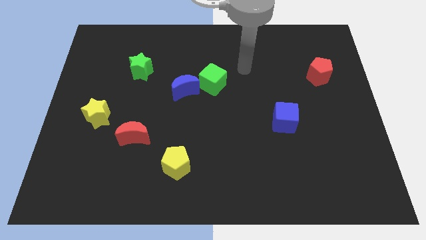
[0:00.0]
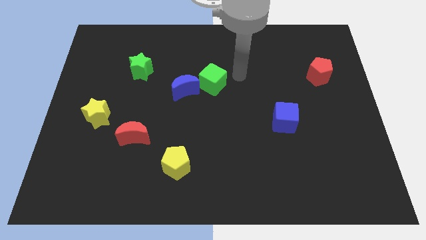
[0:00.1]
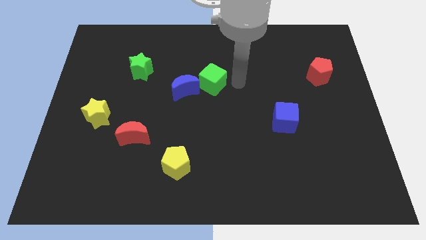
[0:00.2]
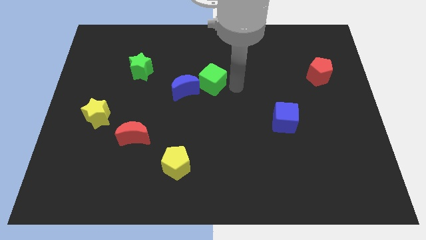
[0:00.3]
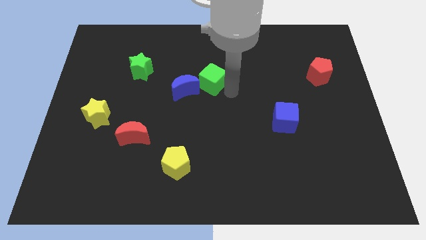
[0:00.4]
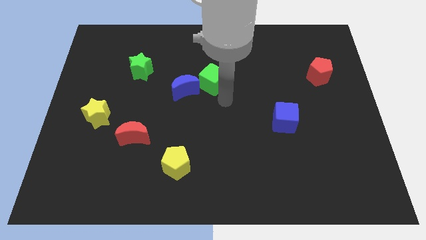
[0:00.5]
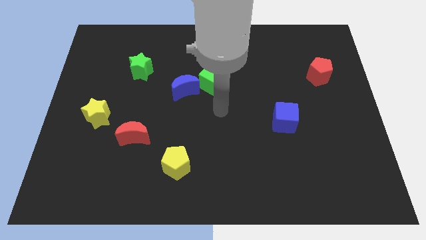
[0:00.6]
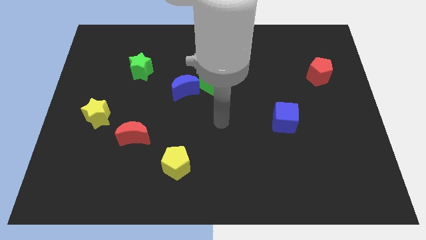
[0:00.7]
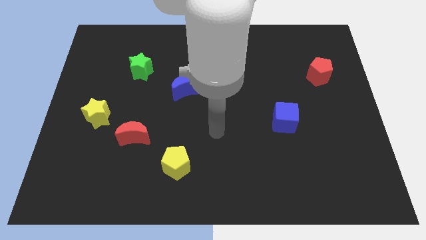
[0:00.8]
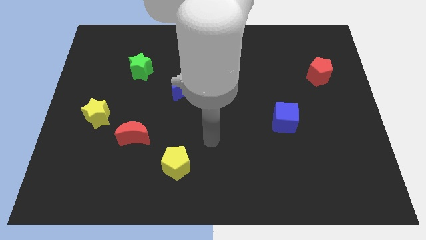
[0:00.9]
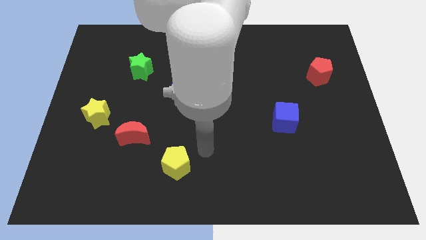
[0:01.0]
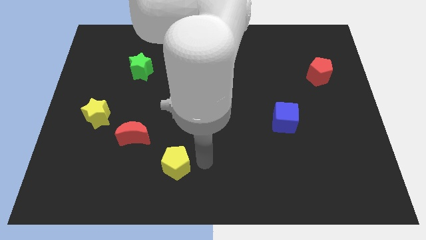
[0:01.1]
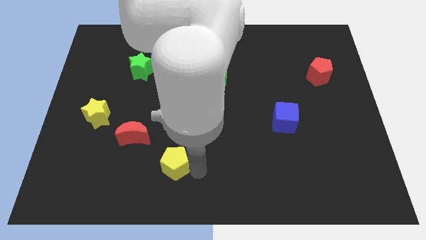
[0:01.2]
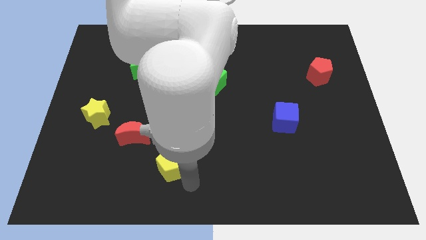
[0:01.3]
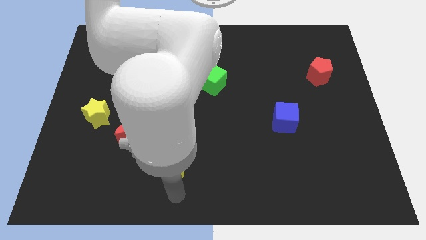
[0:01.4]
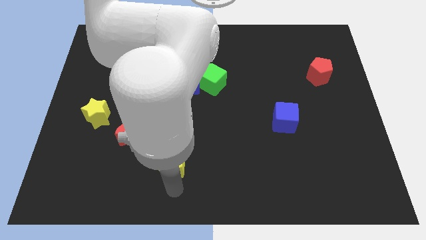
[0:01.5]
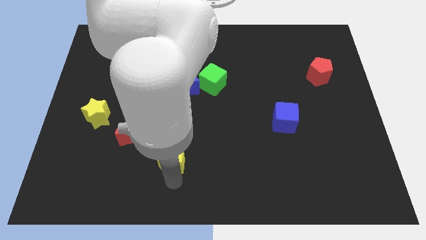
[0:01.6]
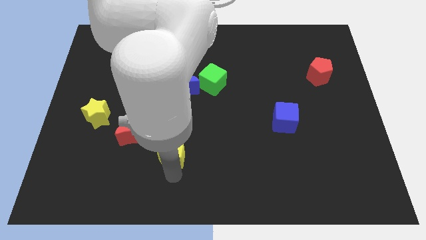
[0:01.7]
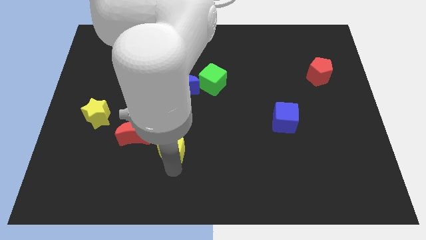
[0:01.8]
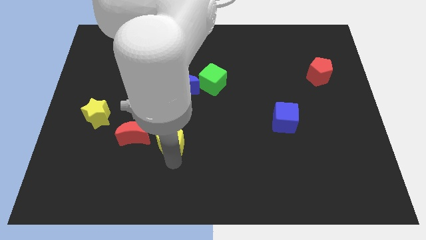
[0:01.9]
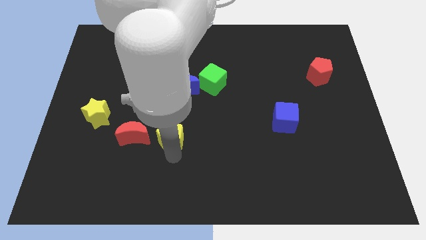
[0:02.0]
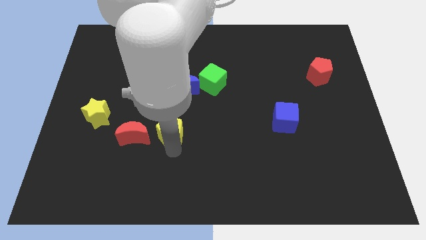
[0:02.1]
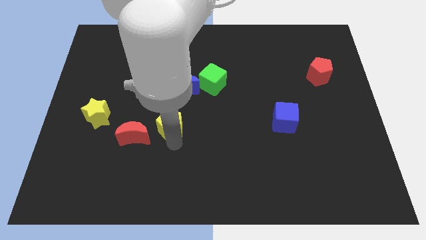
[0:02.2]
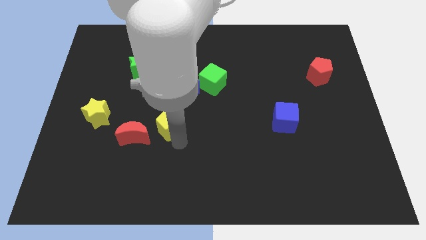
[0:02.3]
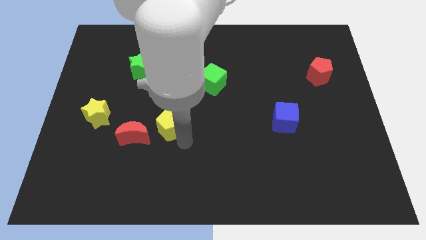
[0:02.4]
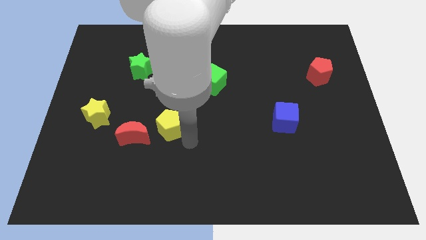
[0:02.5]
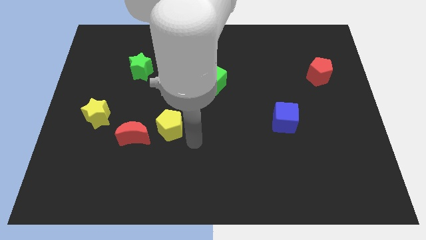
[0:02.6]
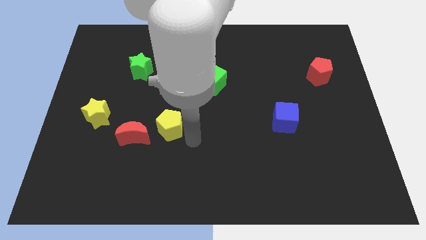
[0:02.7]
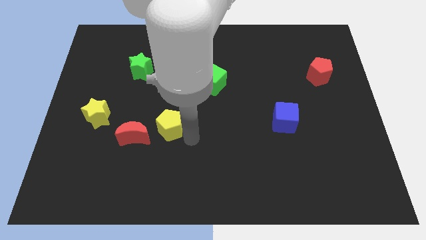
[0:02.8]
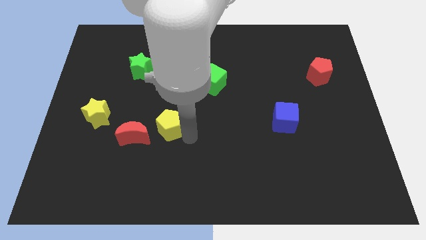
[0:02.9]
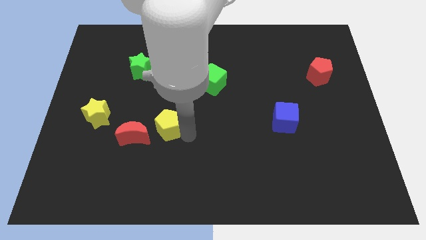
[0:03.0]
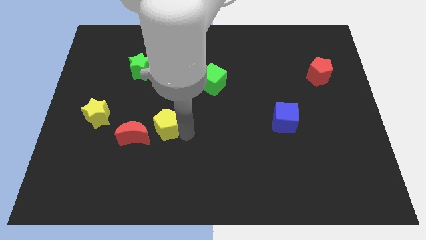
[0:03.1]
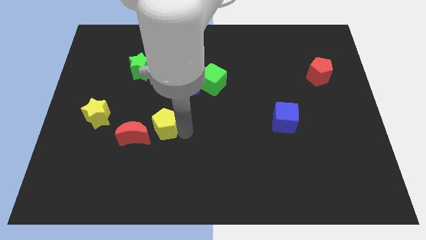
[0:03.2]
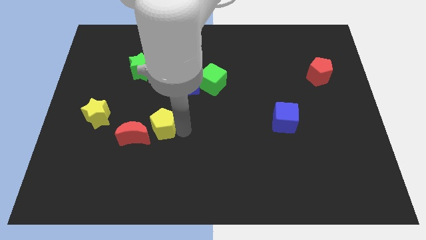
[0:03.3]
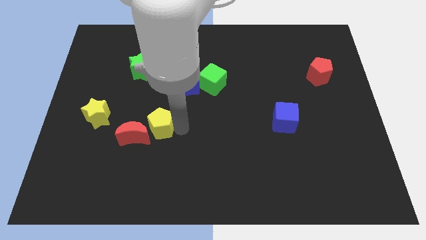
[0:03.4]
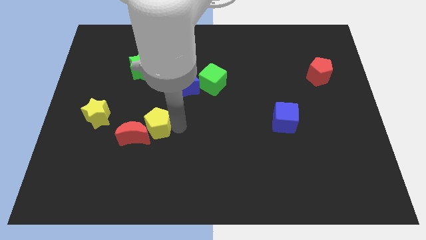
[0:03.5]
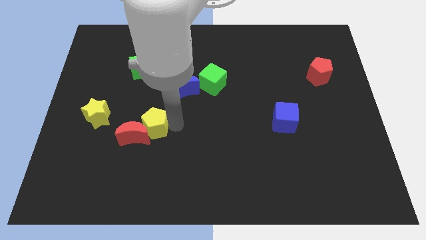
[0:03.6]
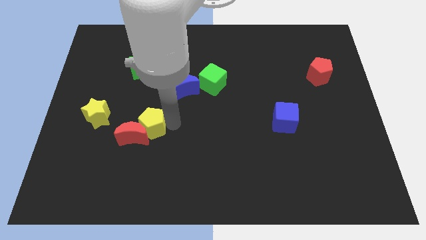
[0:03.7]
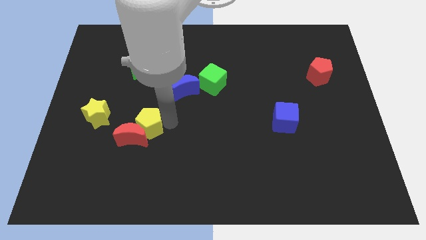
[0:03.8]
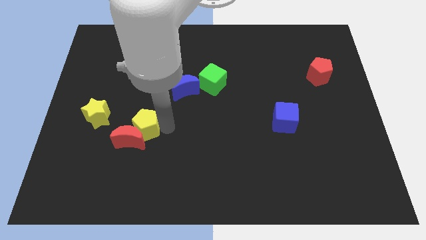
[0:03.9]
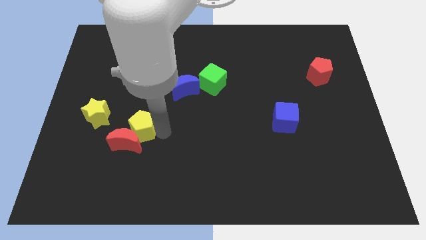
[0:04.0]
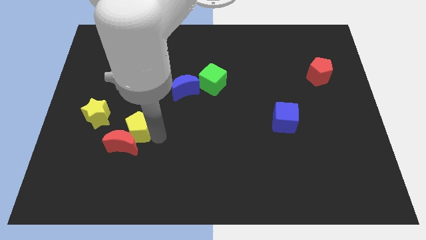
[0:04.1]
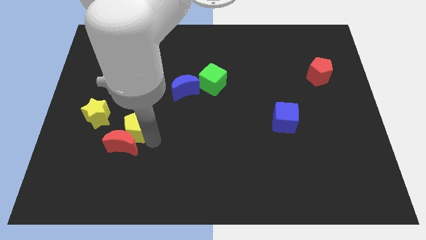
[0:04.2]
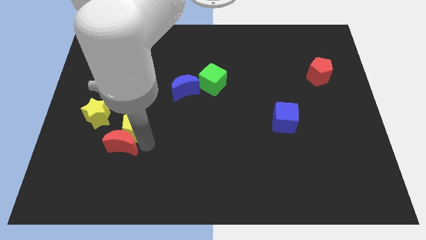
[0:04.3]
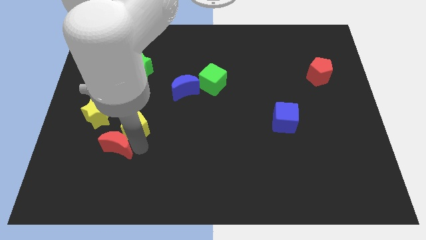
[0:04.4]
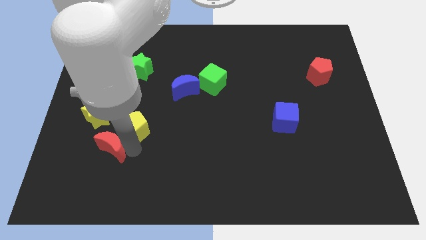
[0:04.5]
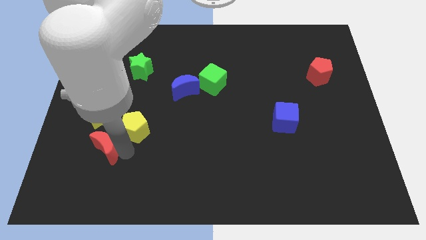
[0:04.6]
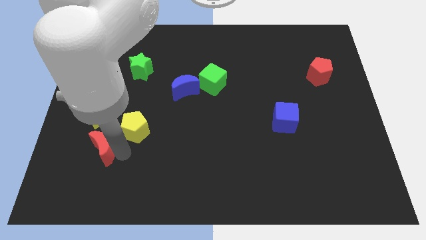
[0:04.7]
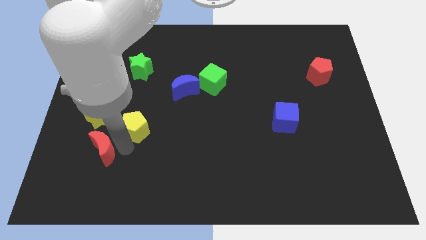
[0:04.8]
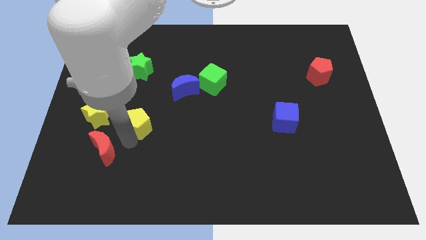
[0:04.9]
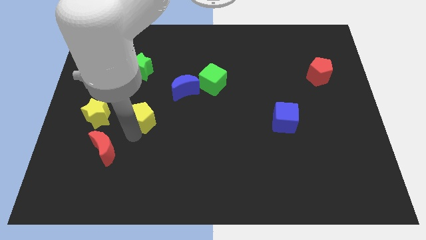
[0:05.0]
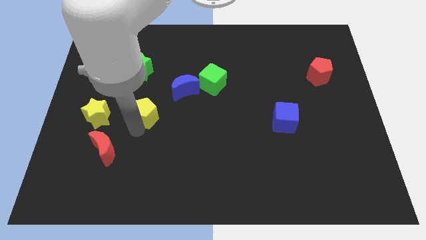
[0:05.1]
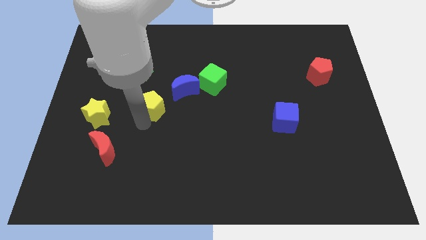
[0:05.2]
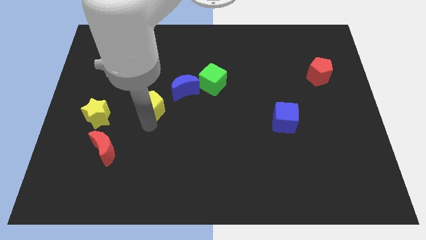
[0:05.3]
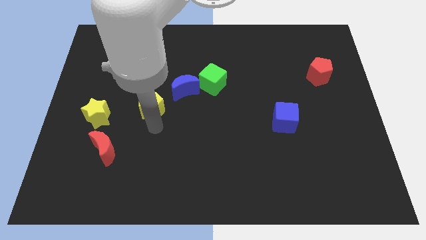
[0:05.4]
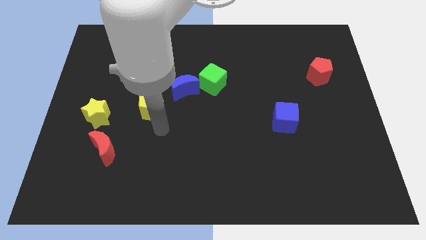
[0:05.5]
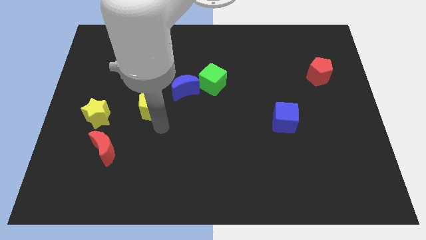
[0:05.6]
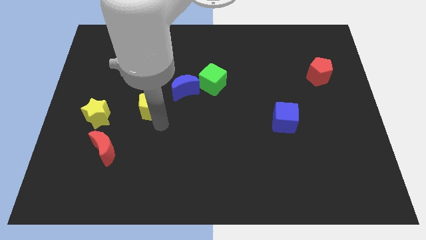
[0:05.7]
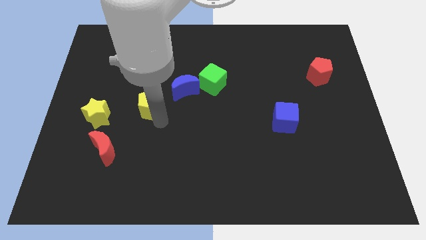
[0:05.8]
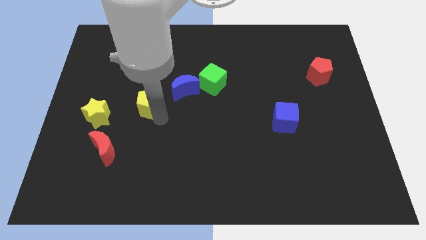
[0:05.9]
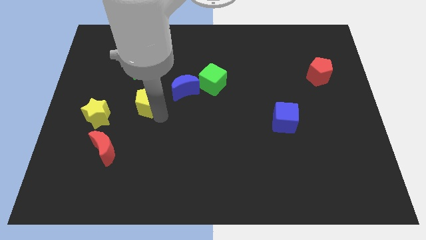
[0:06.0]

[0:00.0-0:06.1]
put the yellow pentagon to the left side of the blue moon

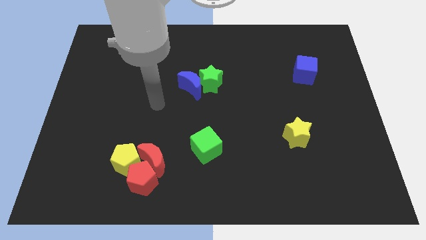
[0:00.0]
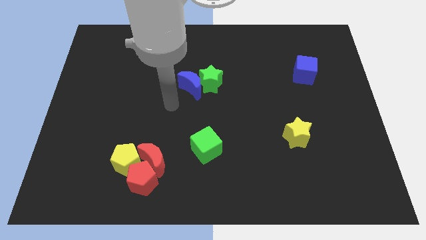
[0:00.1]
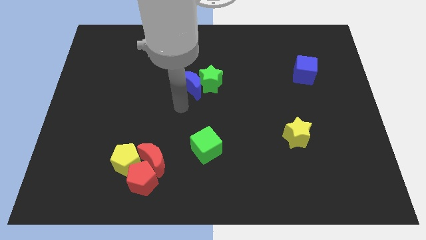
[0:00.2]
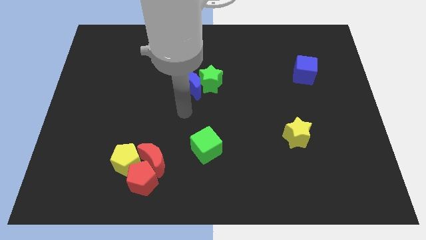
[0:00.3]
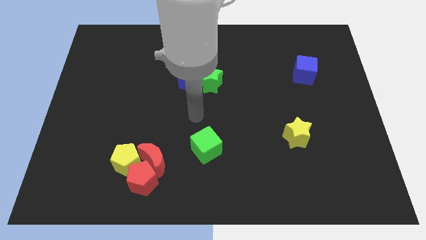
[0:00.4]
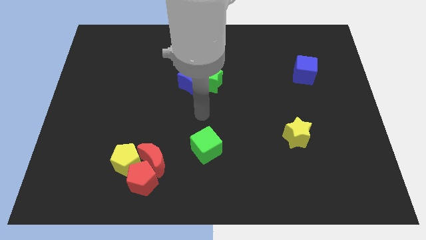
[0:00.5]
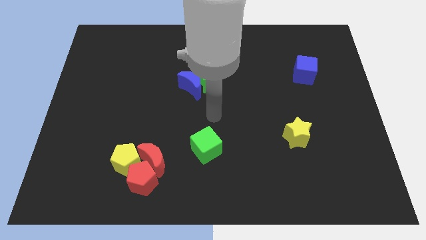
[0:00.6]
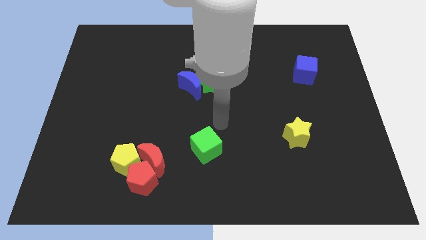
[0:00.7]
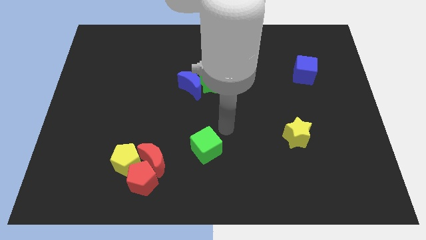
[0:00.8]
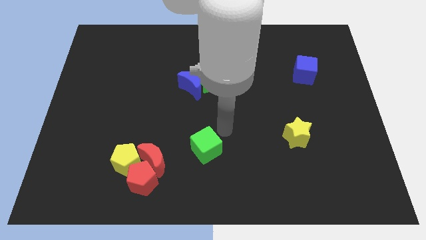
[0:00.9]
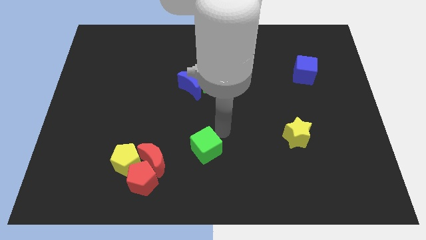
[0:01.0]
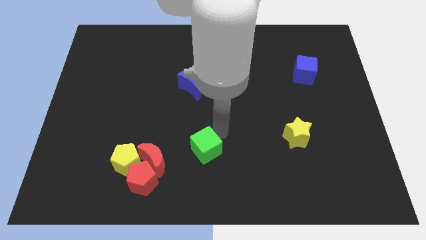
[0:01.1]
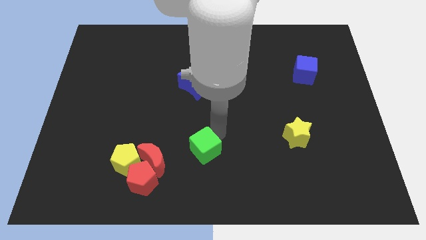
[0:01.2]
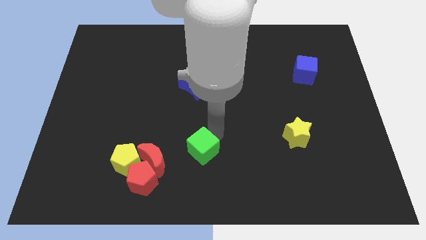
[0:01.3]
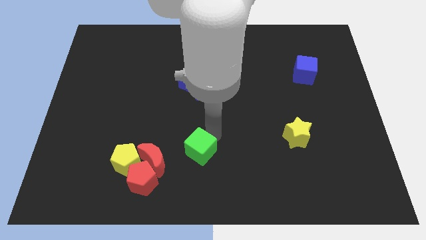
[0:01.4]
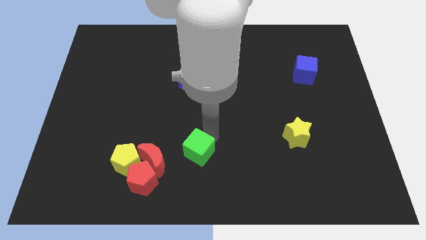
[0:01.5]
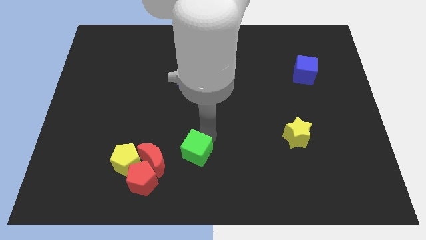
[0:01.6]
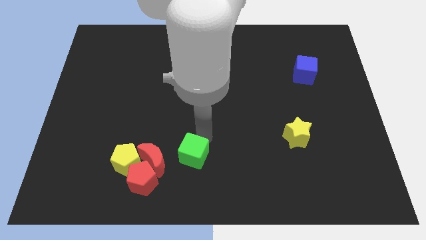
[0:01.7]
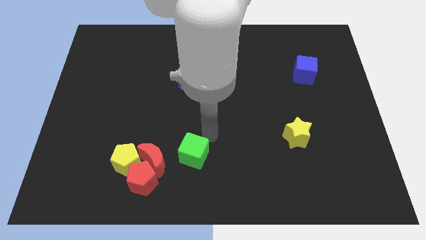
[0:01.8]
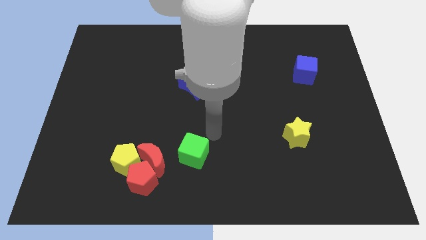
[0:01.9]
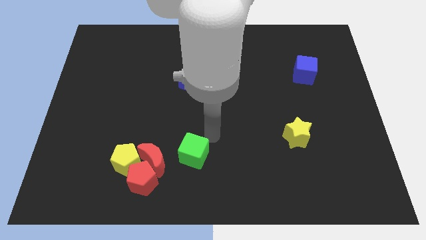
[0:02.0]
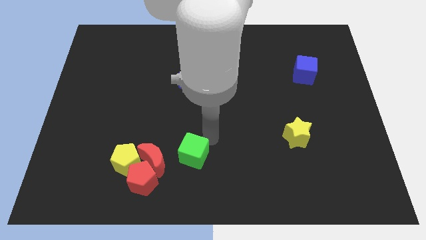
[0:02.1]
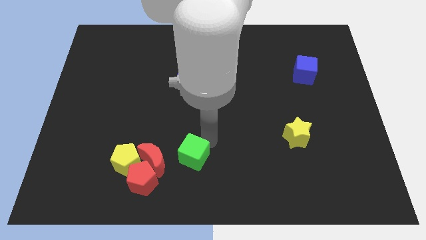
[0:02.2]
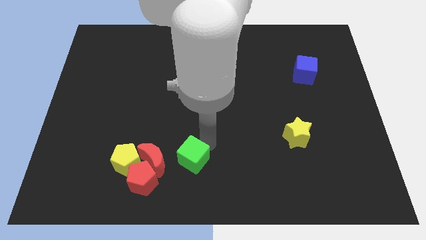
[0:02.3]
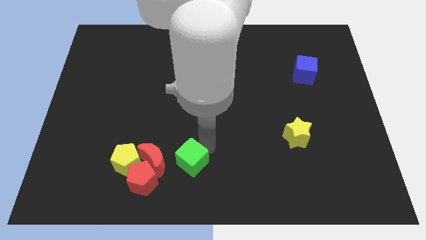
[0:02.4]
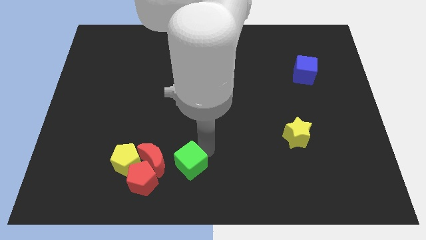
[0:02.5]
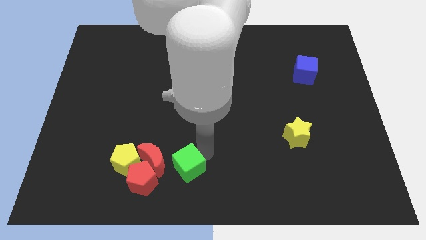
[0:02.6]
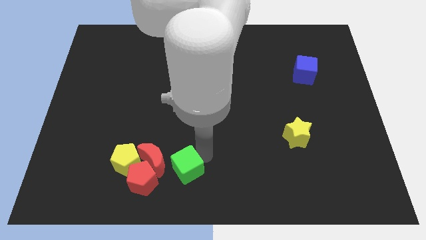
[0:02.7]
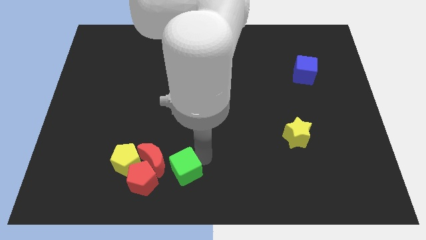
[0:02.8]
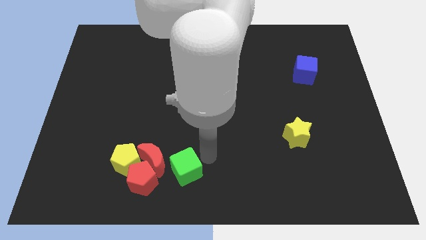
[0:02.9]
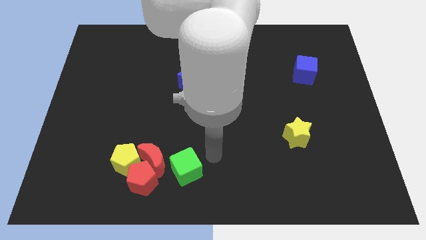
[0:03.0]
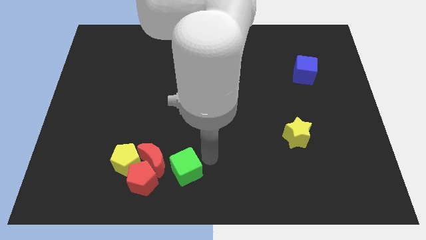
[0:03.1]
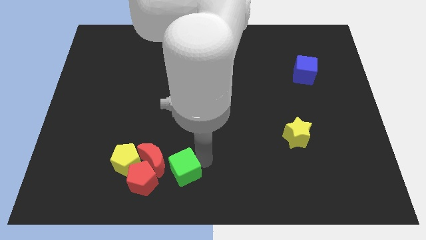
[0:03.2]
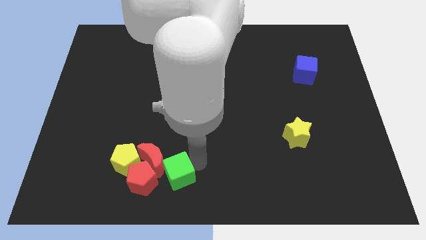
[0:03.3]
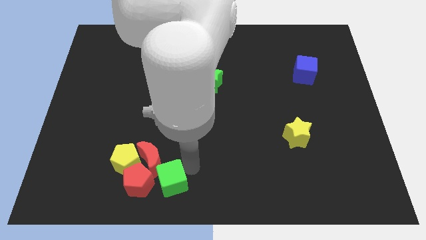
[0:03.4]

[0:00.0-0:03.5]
push the green cube to the bottom right side of the yellow pentagon
